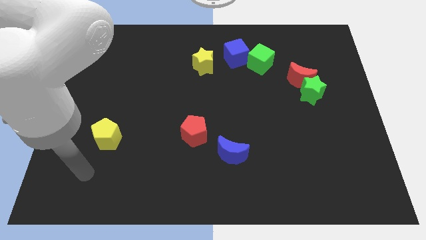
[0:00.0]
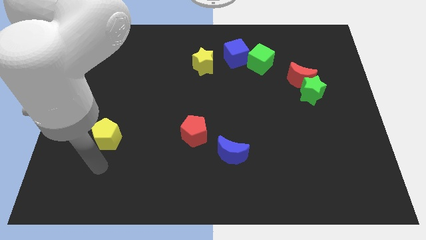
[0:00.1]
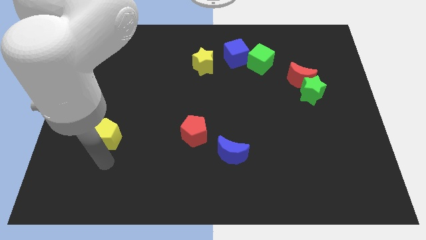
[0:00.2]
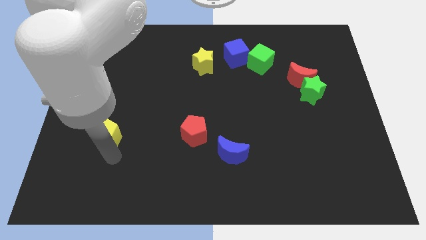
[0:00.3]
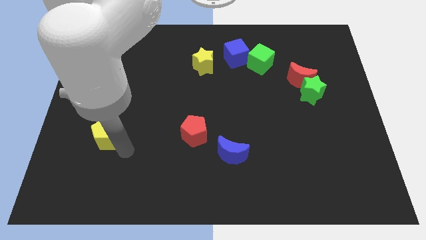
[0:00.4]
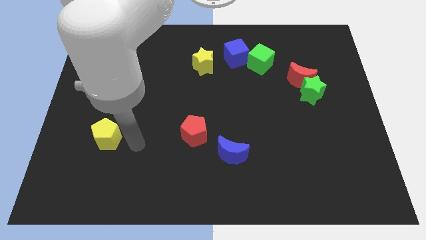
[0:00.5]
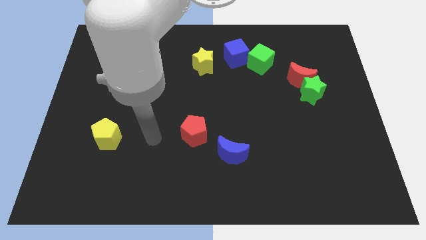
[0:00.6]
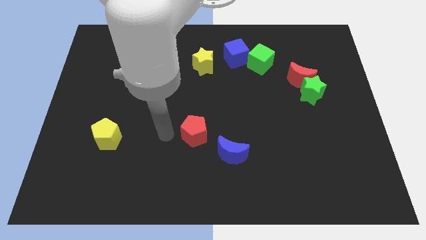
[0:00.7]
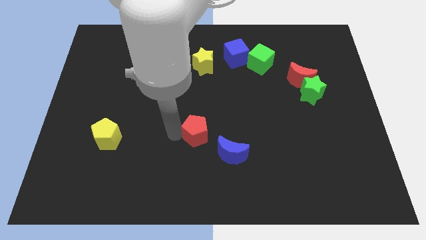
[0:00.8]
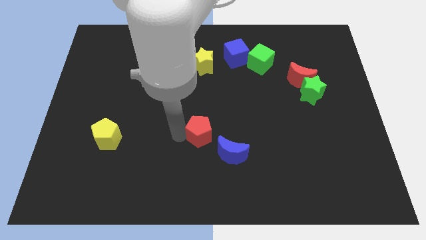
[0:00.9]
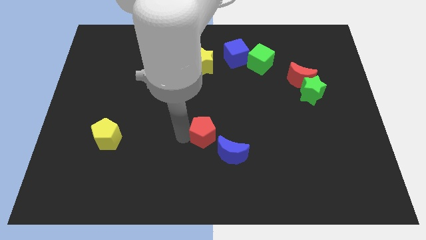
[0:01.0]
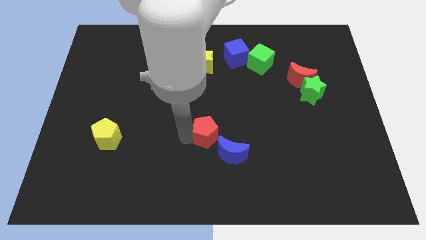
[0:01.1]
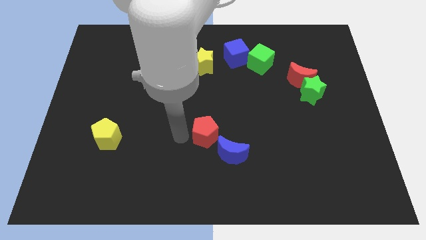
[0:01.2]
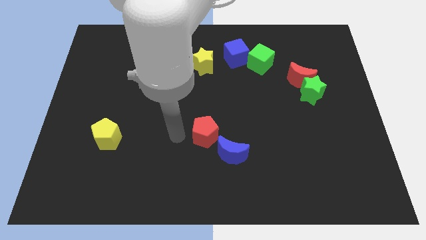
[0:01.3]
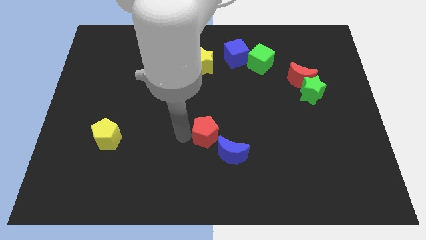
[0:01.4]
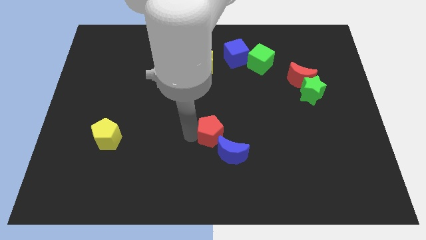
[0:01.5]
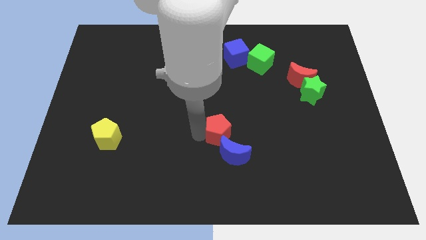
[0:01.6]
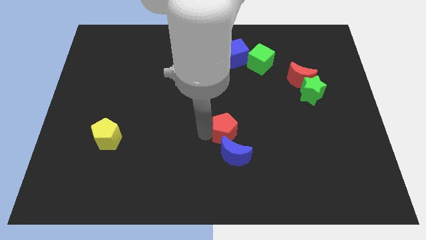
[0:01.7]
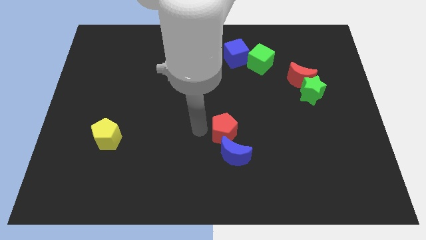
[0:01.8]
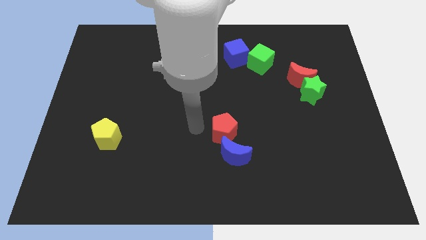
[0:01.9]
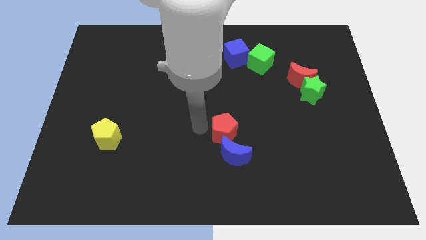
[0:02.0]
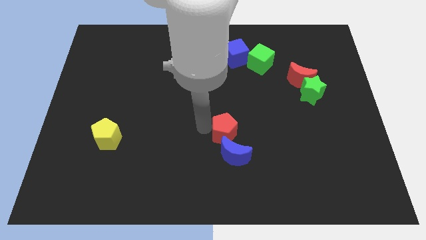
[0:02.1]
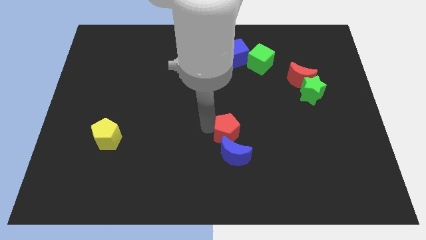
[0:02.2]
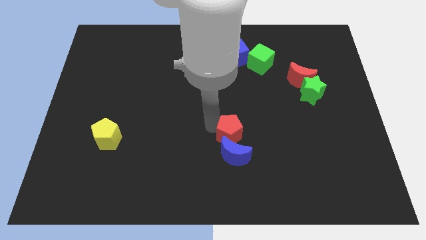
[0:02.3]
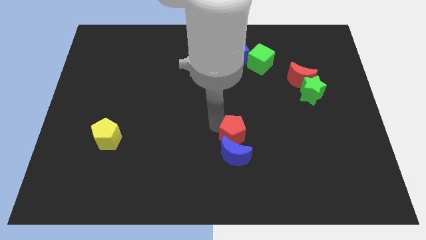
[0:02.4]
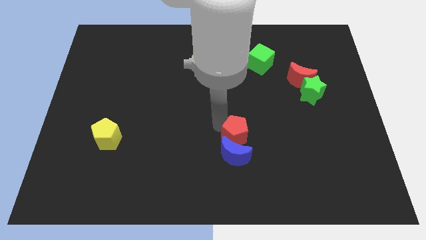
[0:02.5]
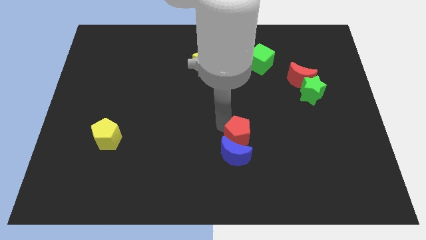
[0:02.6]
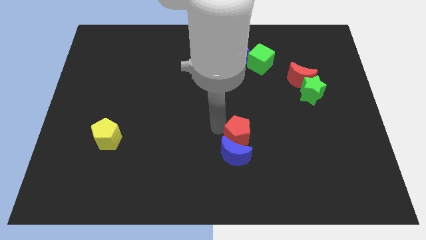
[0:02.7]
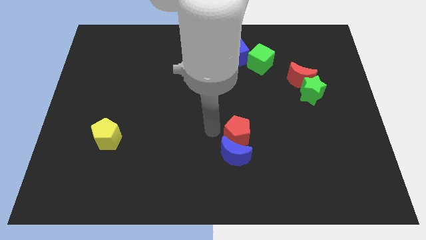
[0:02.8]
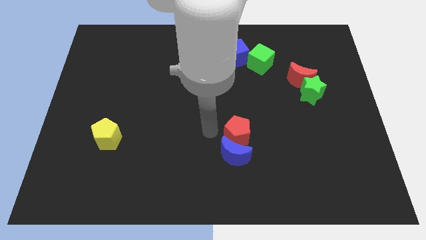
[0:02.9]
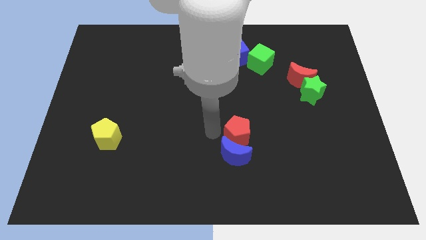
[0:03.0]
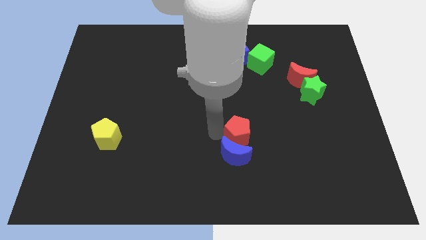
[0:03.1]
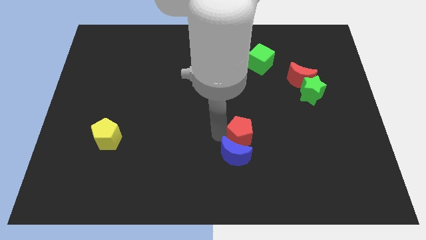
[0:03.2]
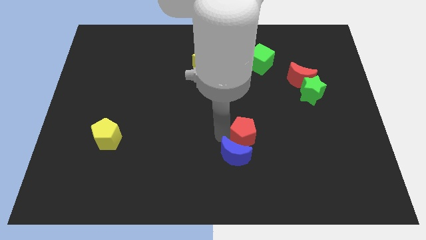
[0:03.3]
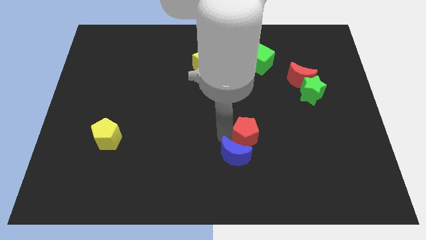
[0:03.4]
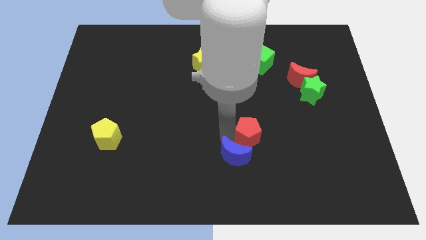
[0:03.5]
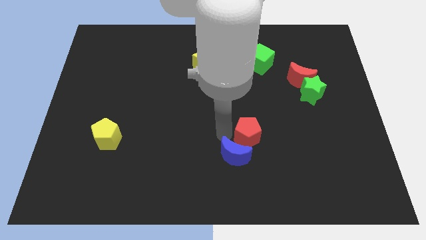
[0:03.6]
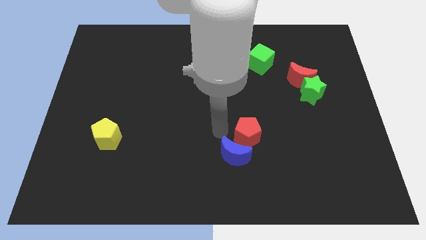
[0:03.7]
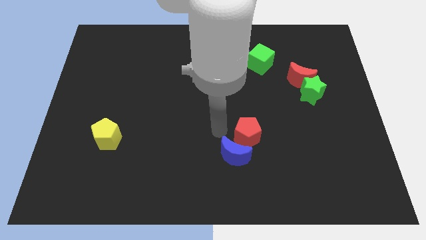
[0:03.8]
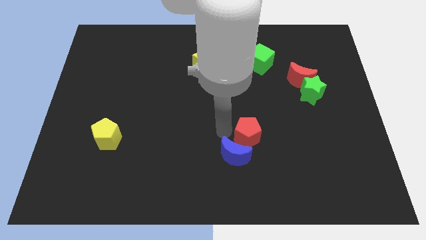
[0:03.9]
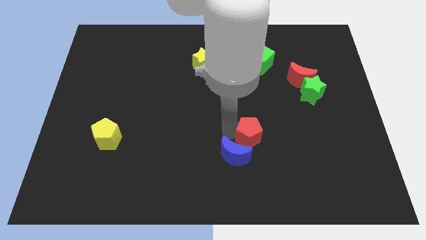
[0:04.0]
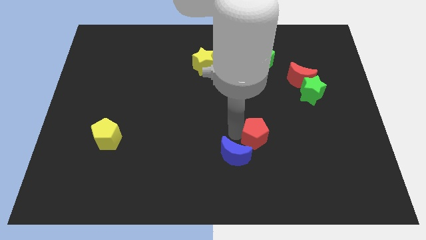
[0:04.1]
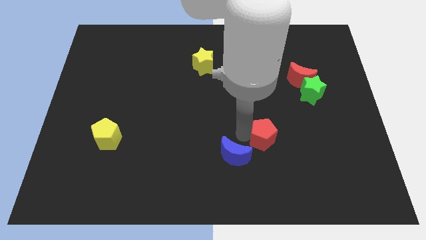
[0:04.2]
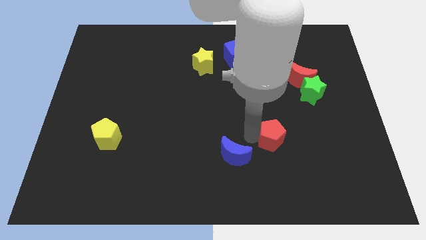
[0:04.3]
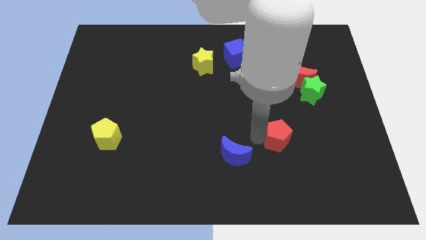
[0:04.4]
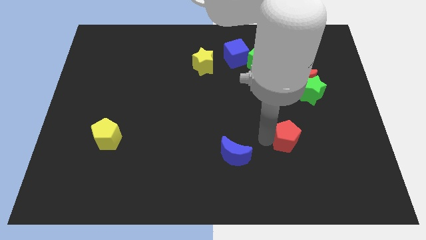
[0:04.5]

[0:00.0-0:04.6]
move the red pentagon to the right

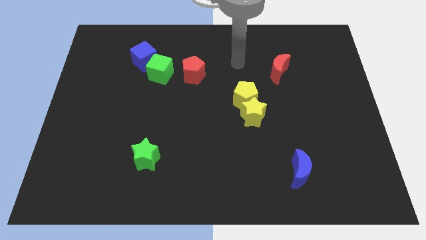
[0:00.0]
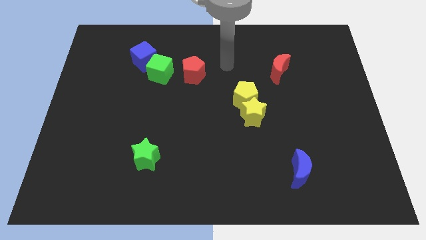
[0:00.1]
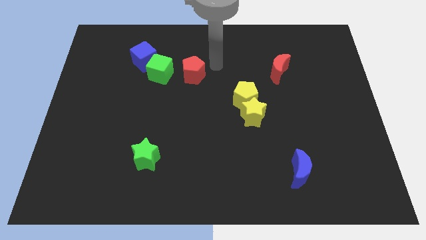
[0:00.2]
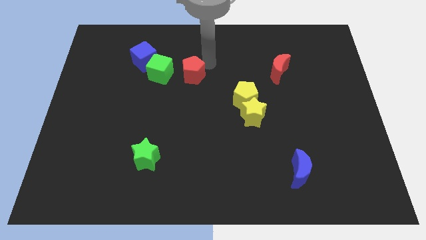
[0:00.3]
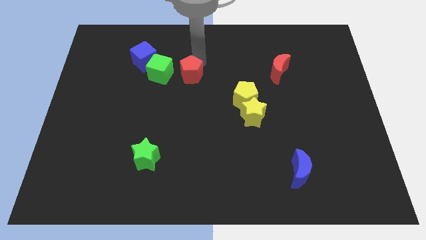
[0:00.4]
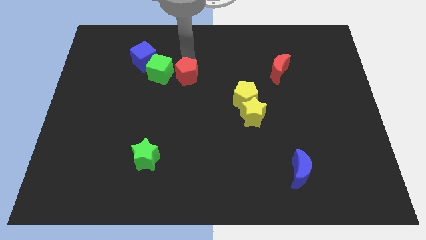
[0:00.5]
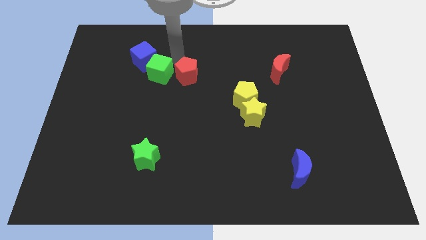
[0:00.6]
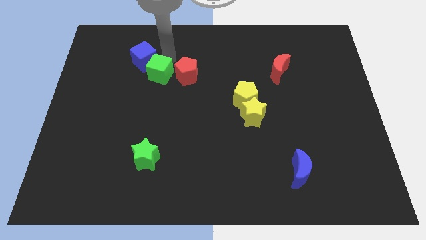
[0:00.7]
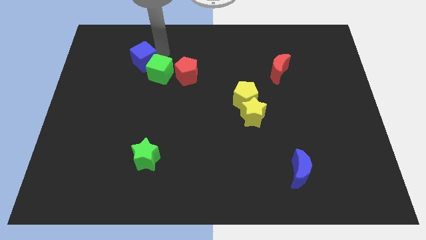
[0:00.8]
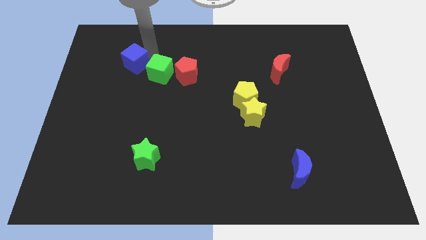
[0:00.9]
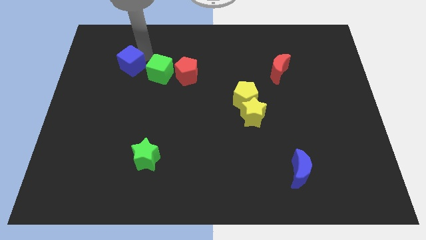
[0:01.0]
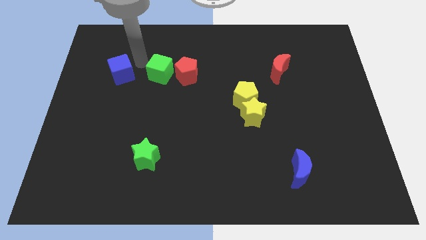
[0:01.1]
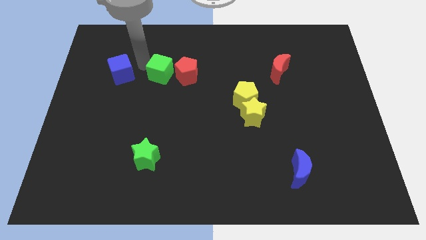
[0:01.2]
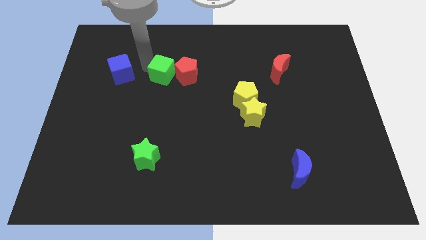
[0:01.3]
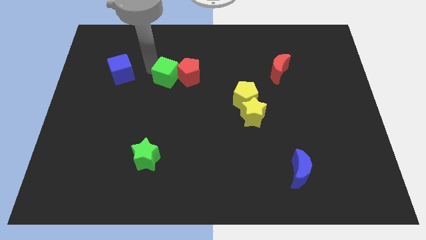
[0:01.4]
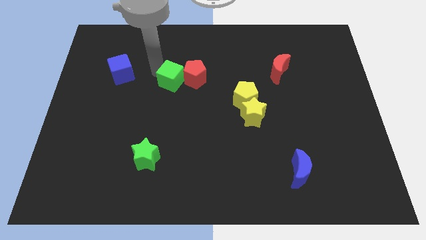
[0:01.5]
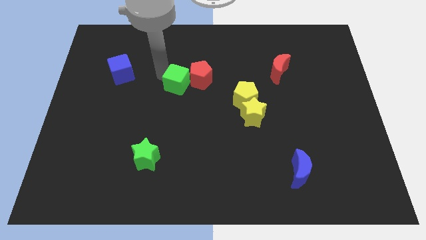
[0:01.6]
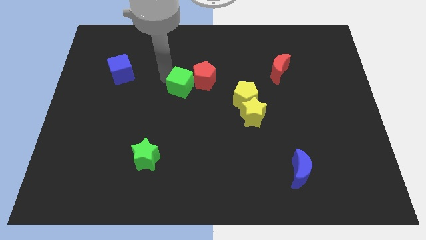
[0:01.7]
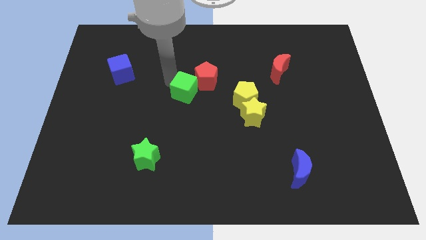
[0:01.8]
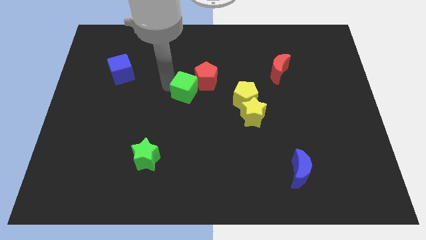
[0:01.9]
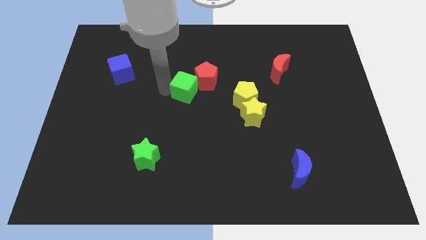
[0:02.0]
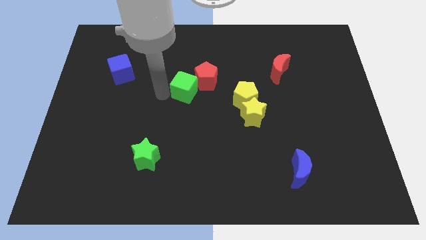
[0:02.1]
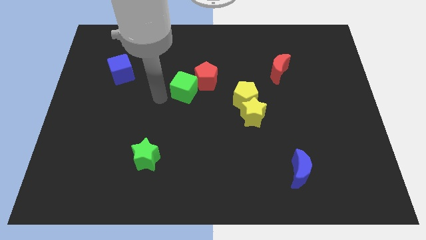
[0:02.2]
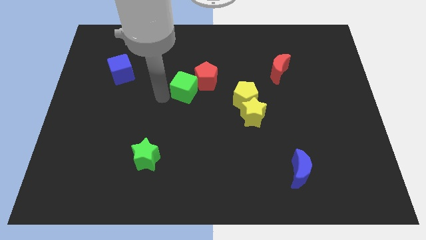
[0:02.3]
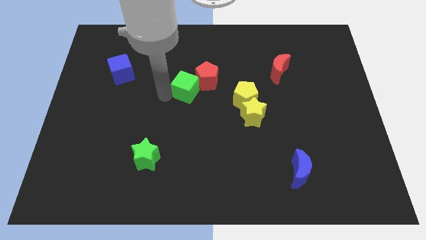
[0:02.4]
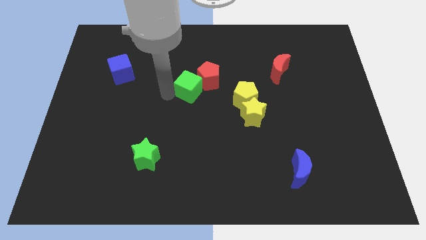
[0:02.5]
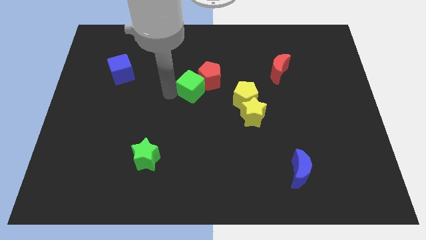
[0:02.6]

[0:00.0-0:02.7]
push the green cube a little right

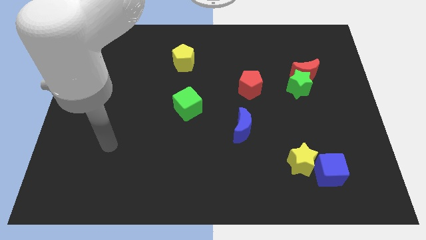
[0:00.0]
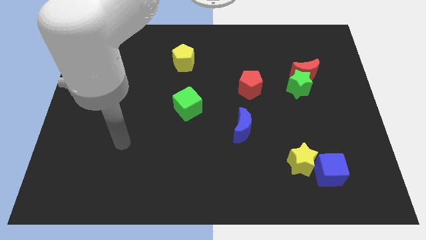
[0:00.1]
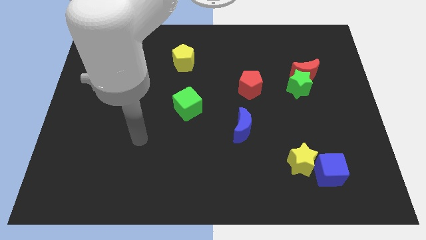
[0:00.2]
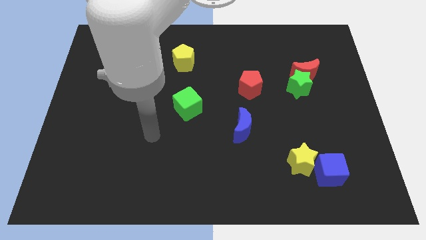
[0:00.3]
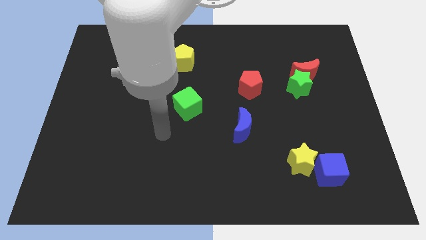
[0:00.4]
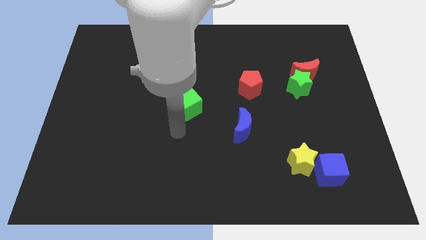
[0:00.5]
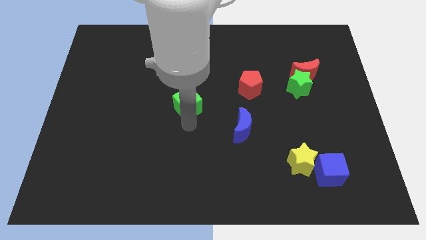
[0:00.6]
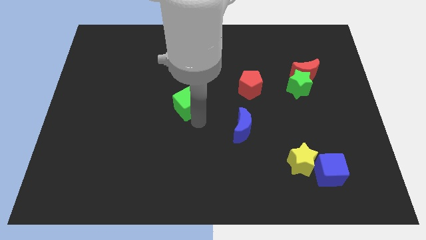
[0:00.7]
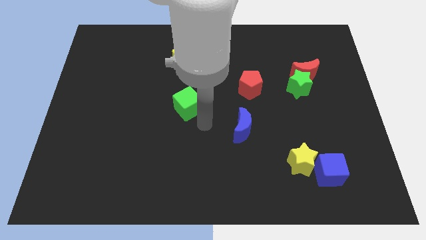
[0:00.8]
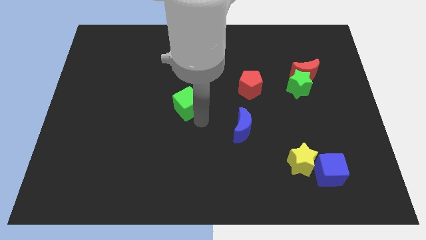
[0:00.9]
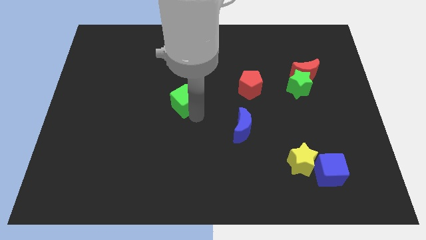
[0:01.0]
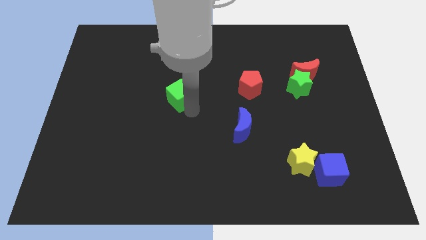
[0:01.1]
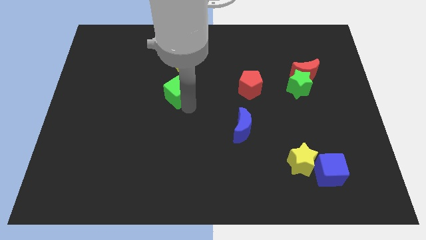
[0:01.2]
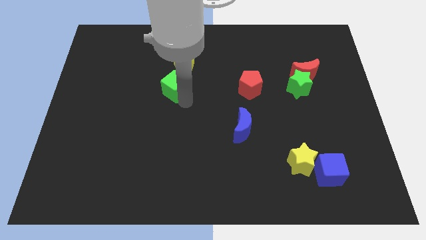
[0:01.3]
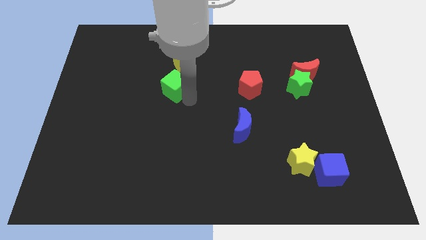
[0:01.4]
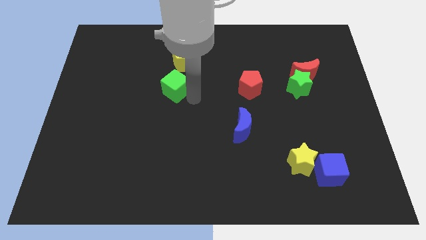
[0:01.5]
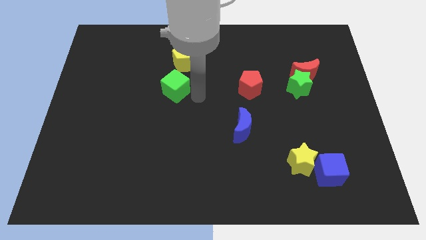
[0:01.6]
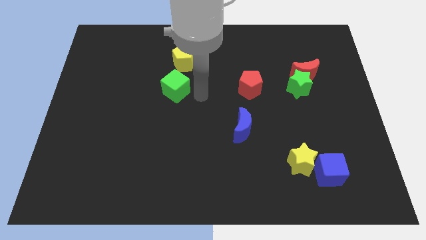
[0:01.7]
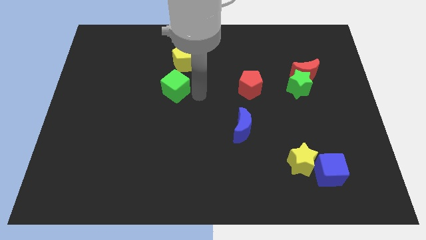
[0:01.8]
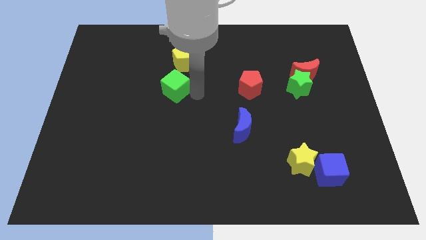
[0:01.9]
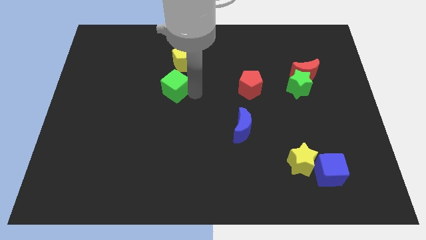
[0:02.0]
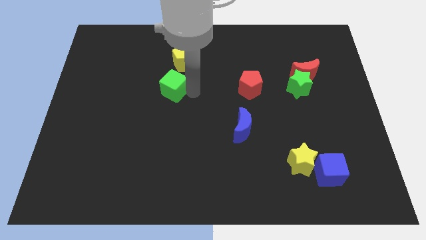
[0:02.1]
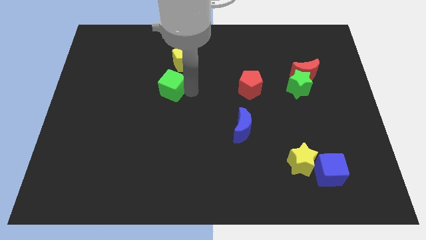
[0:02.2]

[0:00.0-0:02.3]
slightly move the green cube diagonally upwards and to the left
